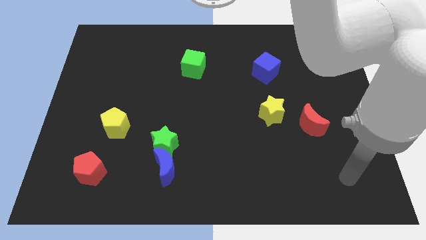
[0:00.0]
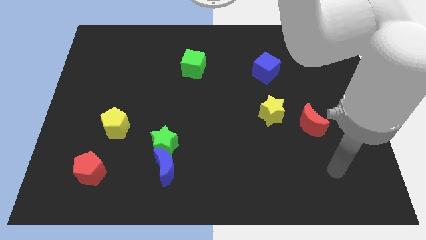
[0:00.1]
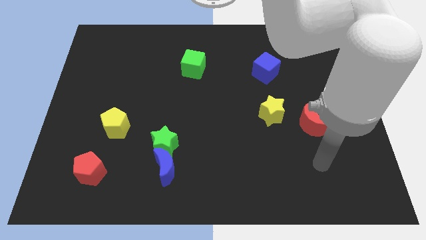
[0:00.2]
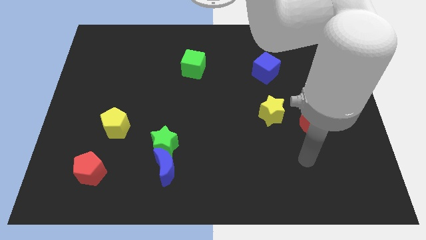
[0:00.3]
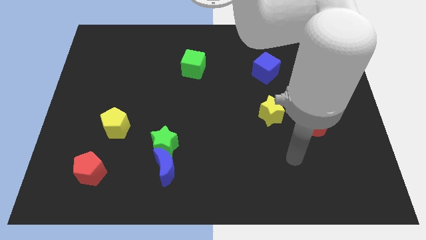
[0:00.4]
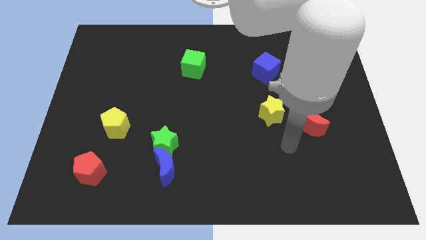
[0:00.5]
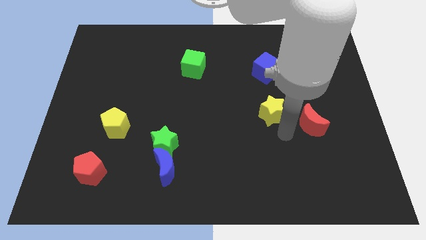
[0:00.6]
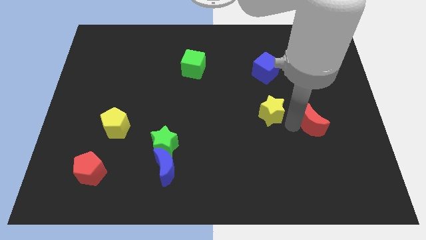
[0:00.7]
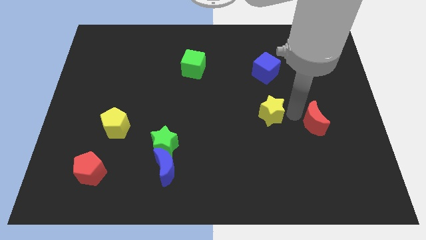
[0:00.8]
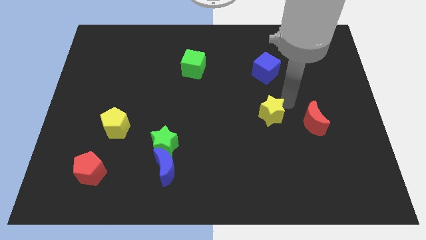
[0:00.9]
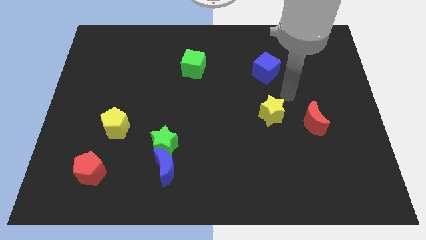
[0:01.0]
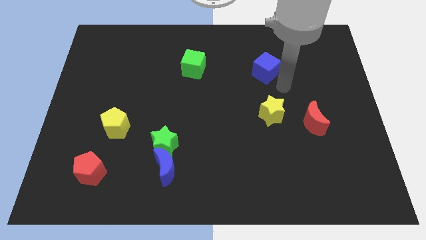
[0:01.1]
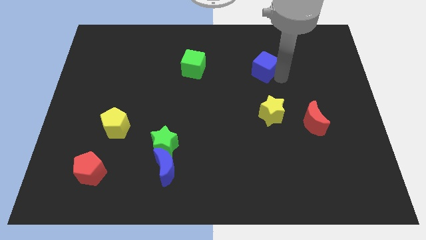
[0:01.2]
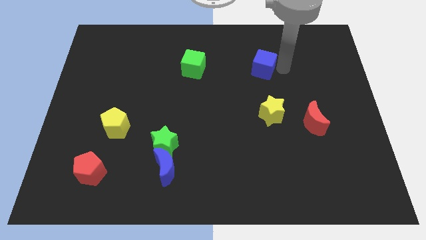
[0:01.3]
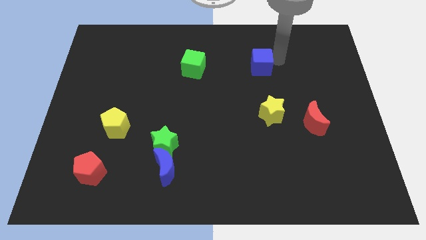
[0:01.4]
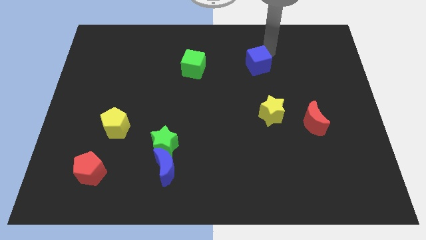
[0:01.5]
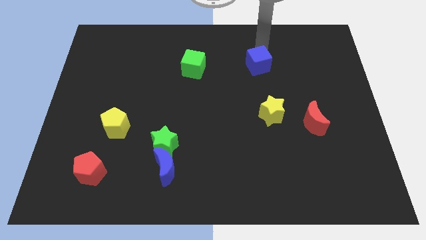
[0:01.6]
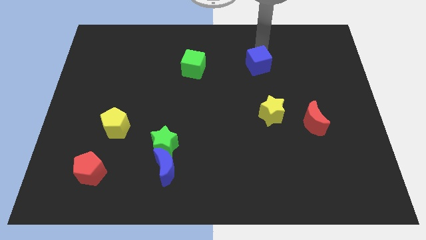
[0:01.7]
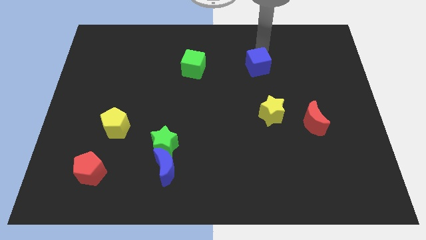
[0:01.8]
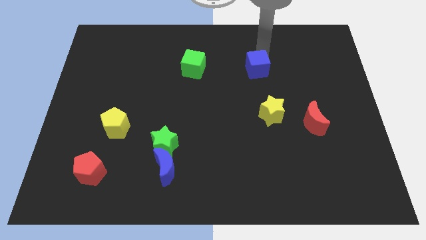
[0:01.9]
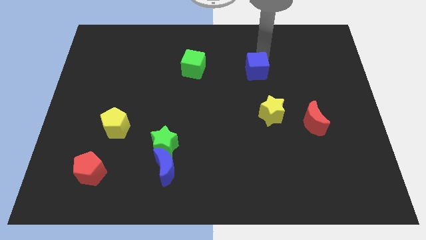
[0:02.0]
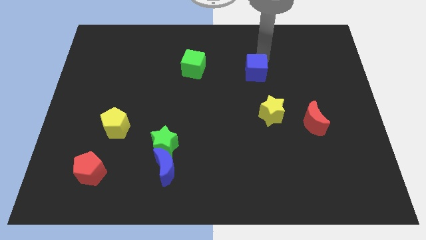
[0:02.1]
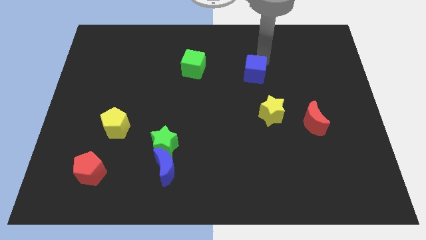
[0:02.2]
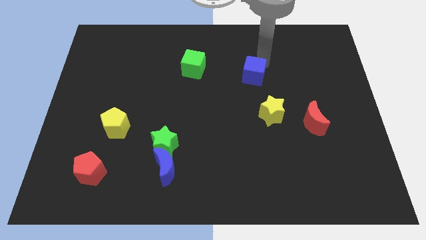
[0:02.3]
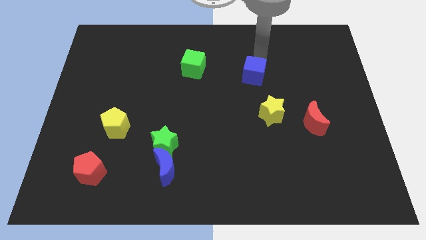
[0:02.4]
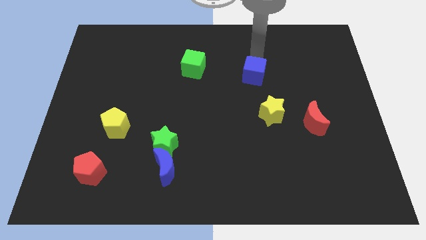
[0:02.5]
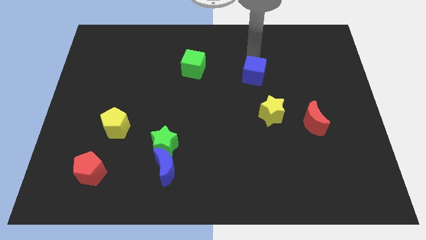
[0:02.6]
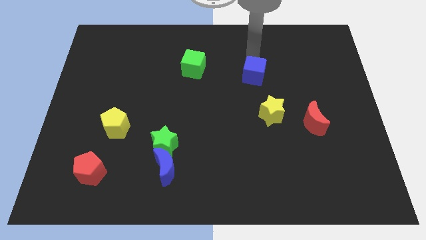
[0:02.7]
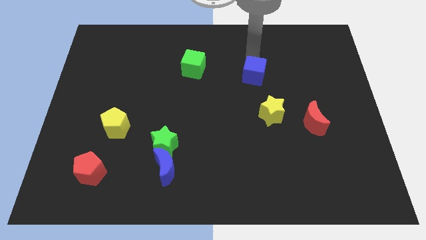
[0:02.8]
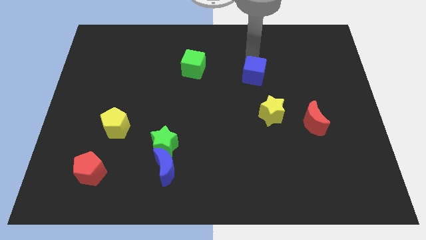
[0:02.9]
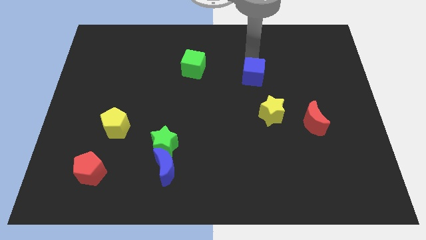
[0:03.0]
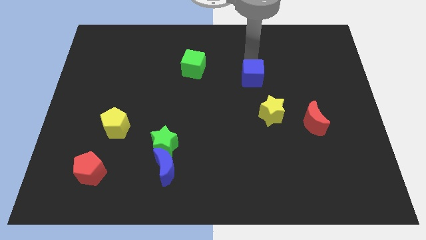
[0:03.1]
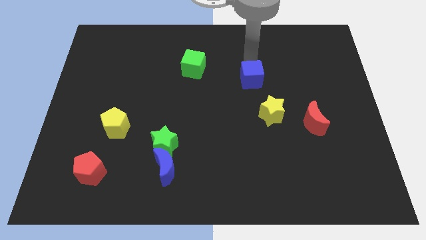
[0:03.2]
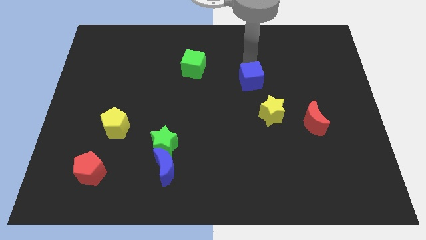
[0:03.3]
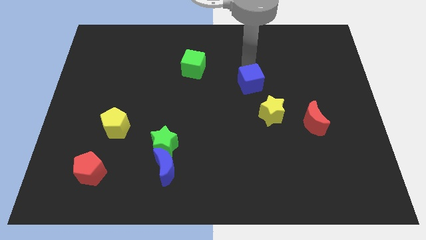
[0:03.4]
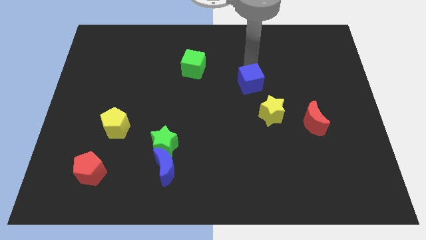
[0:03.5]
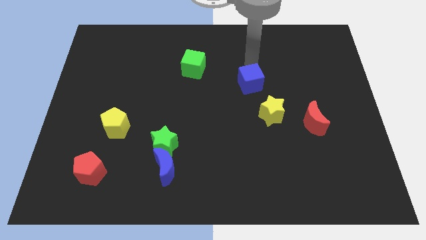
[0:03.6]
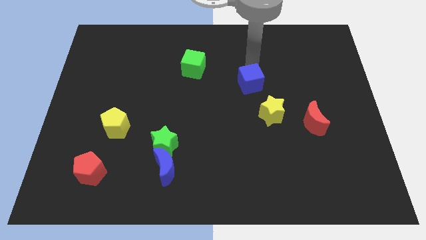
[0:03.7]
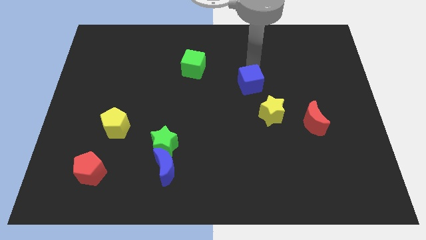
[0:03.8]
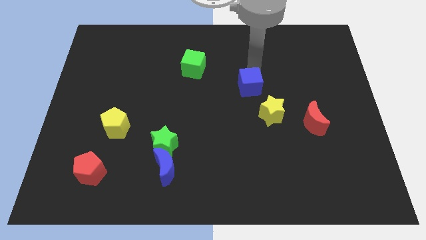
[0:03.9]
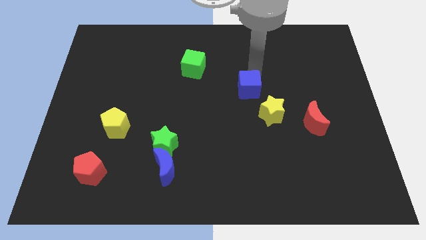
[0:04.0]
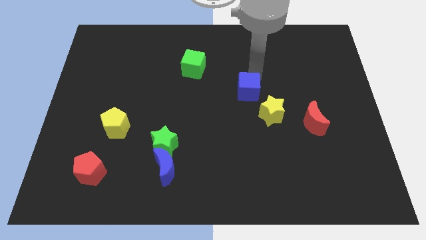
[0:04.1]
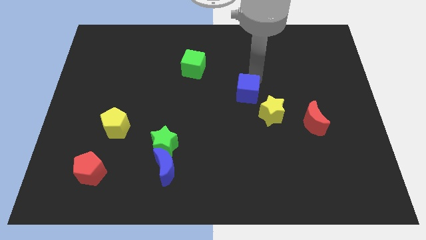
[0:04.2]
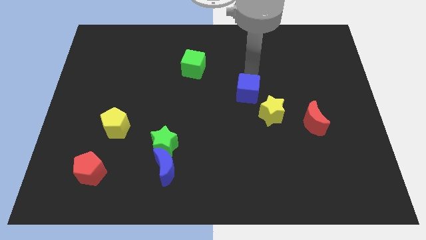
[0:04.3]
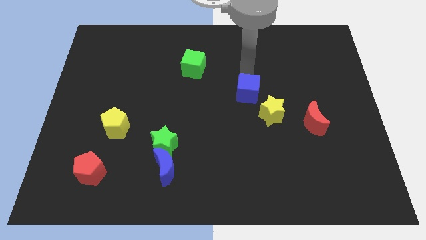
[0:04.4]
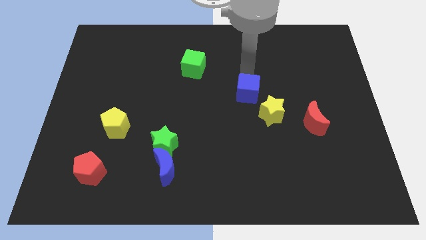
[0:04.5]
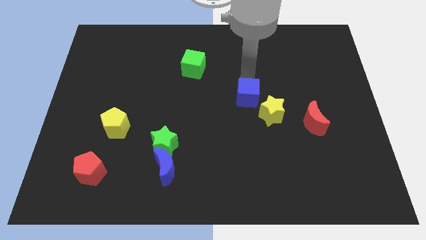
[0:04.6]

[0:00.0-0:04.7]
push the blue cube down a little

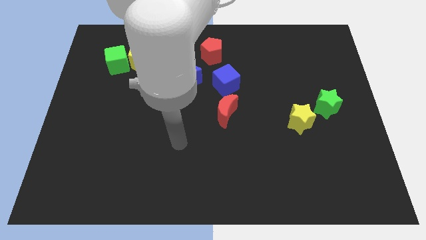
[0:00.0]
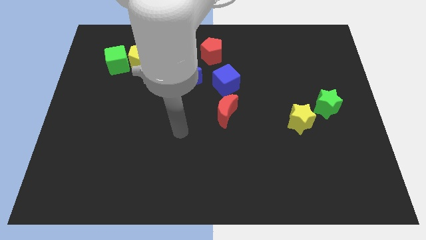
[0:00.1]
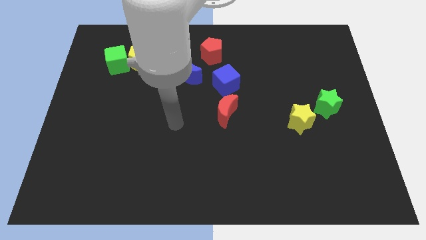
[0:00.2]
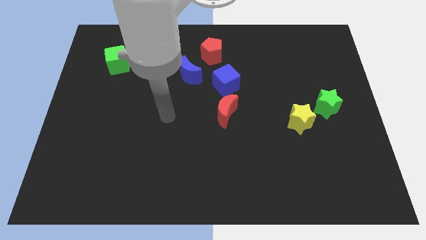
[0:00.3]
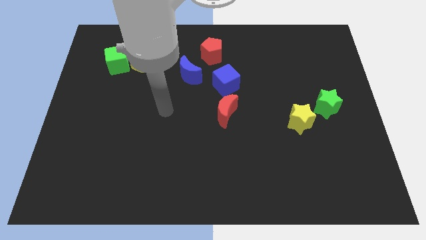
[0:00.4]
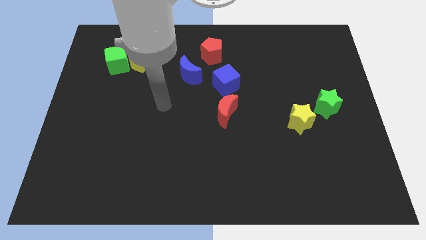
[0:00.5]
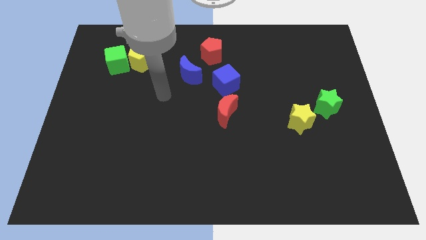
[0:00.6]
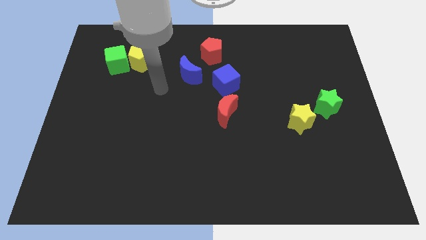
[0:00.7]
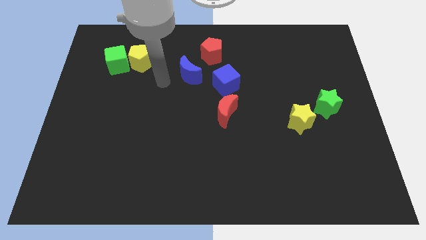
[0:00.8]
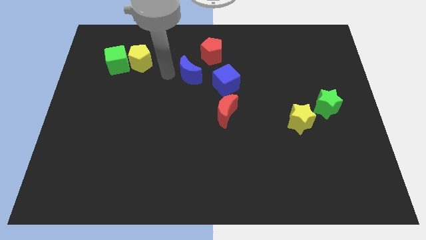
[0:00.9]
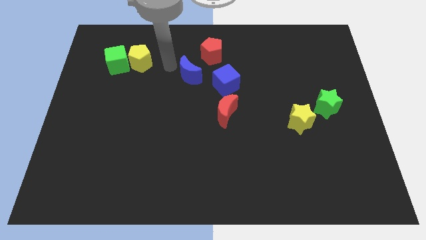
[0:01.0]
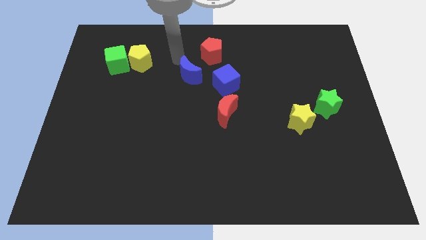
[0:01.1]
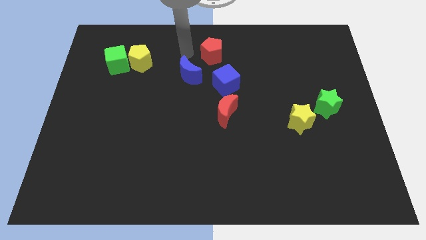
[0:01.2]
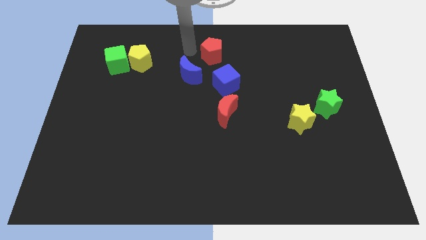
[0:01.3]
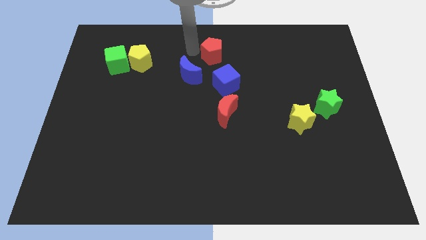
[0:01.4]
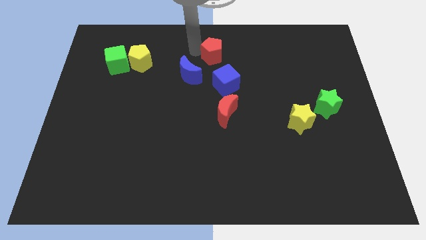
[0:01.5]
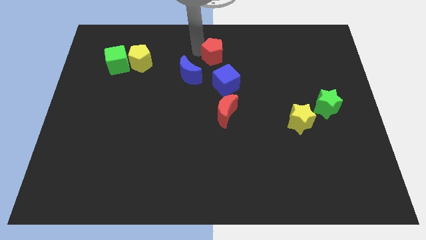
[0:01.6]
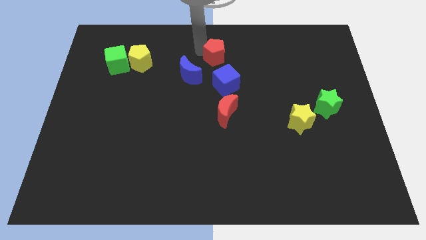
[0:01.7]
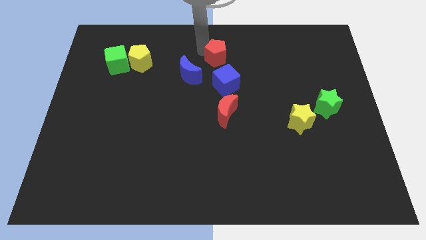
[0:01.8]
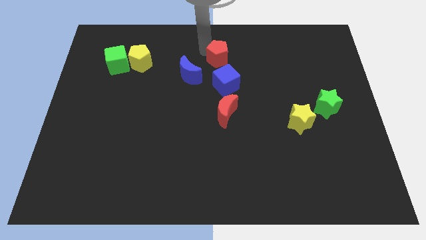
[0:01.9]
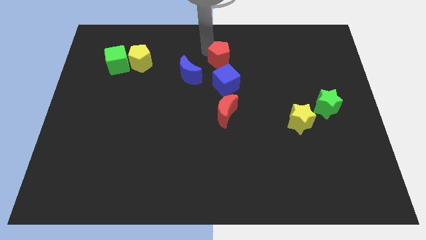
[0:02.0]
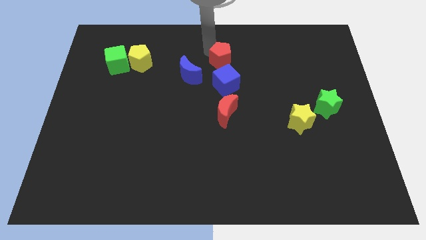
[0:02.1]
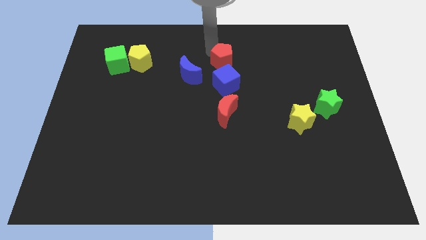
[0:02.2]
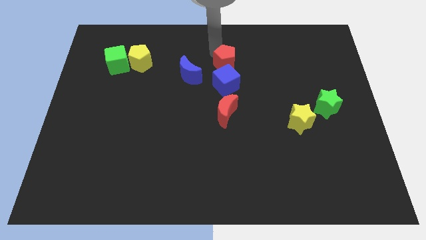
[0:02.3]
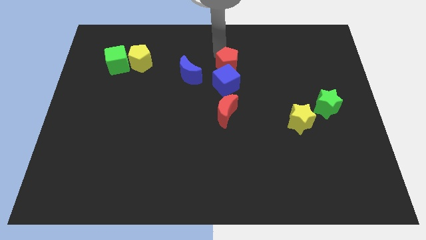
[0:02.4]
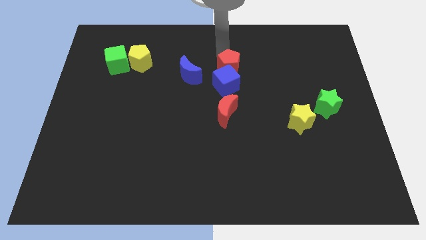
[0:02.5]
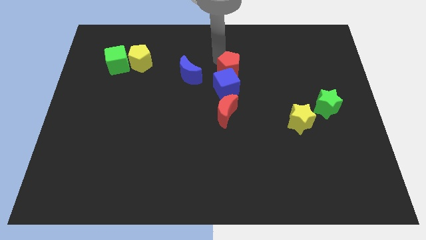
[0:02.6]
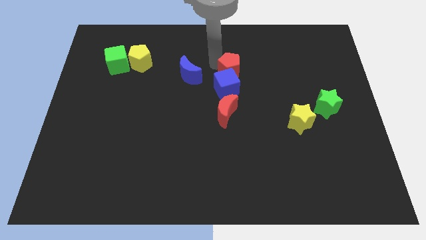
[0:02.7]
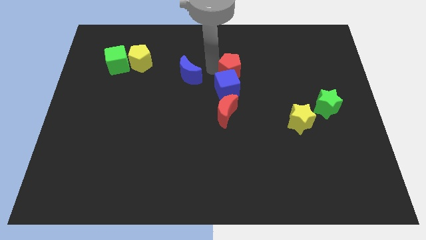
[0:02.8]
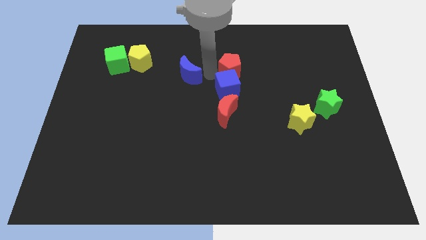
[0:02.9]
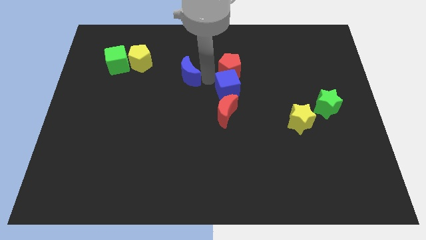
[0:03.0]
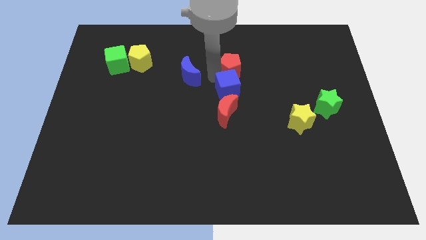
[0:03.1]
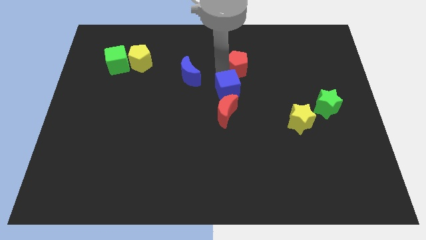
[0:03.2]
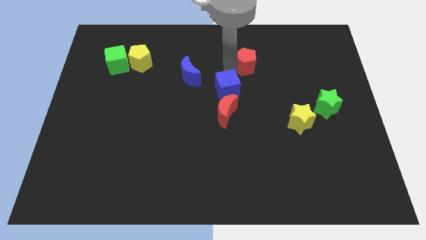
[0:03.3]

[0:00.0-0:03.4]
slightly slide the red pentagon right
